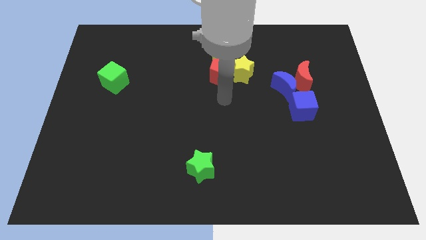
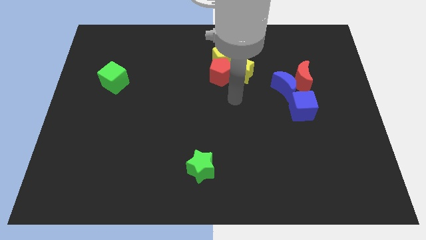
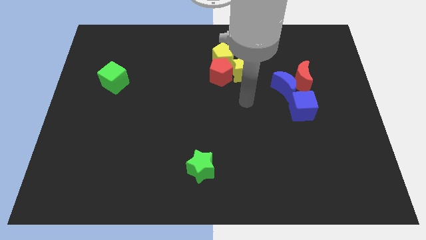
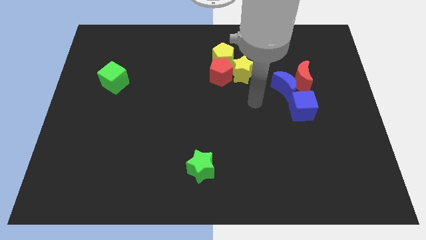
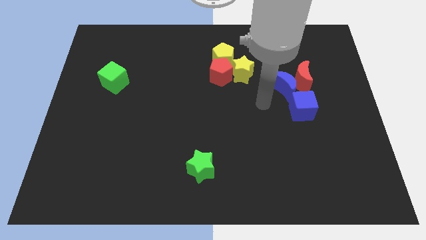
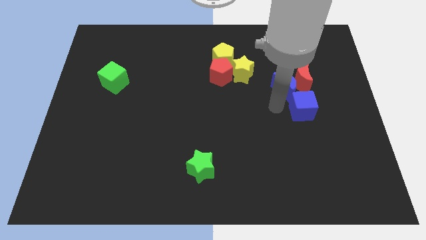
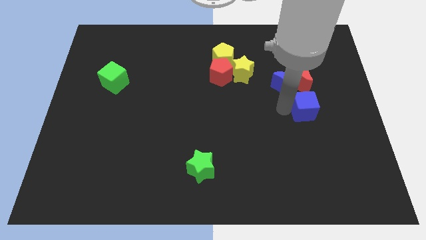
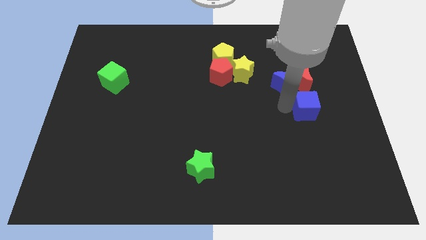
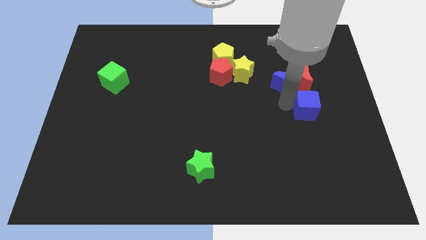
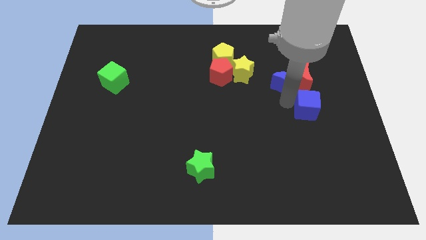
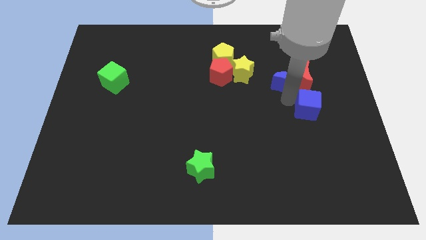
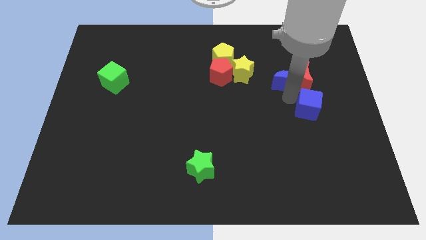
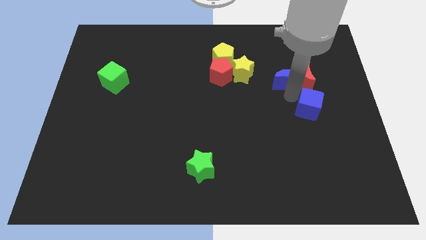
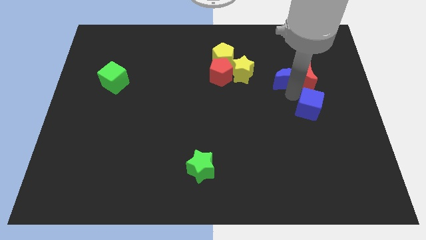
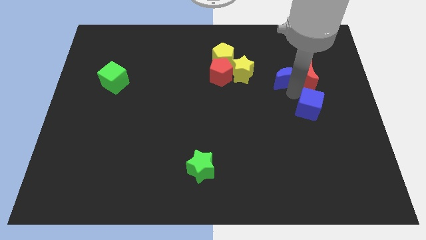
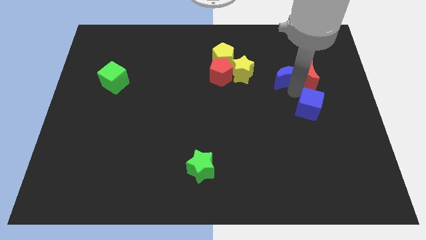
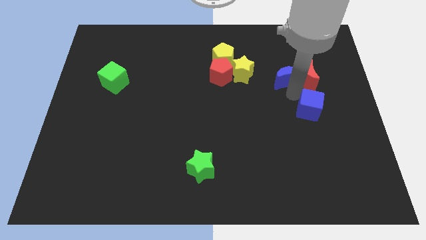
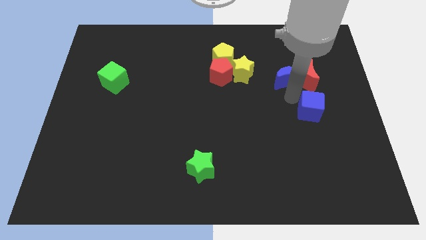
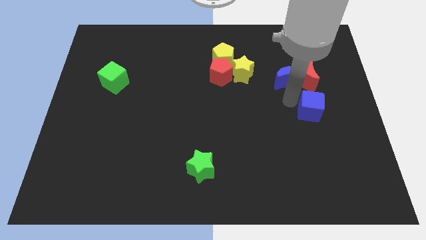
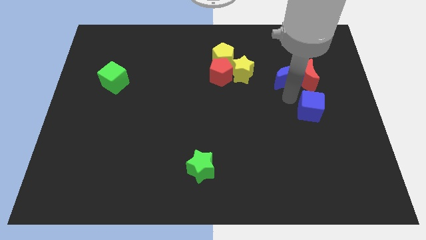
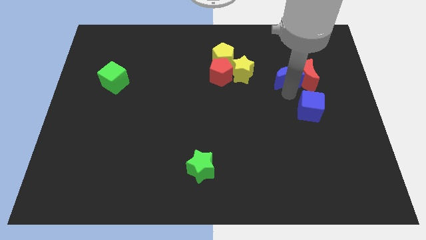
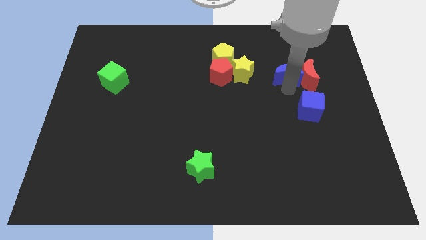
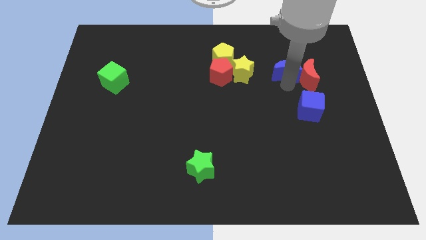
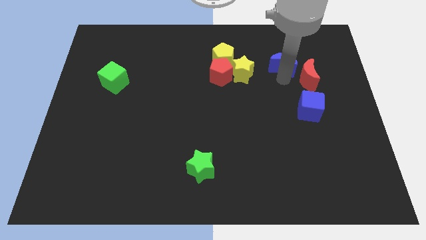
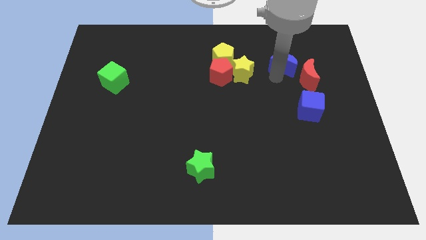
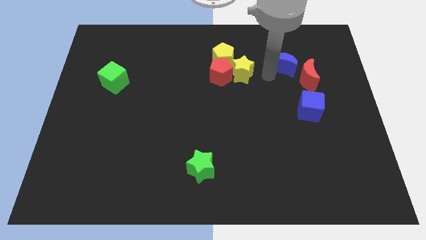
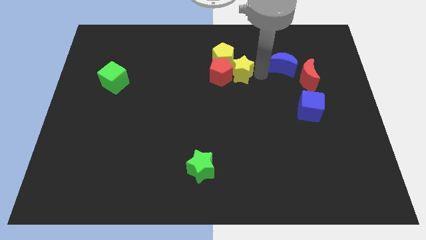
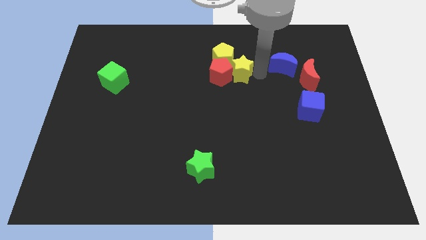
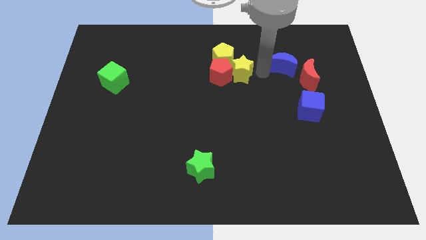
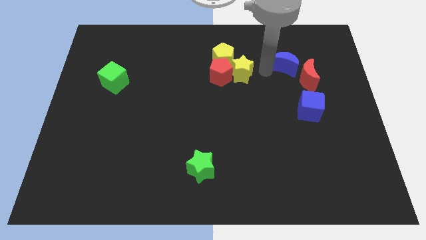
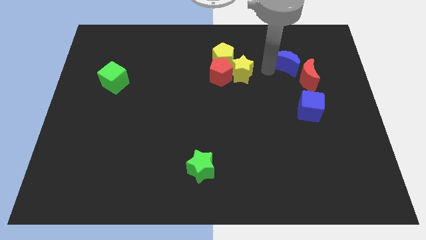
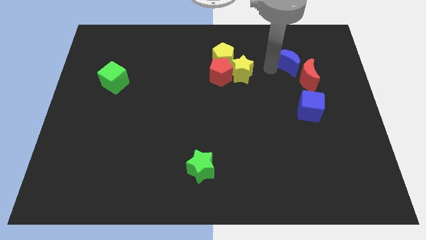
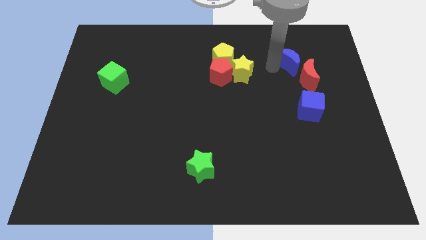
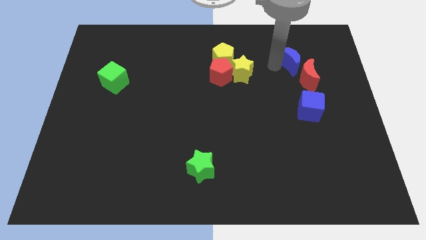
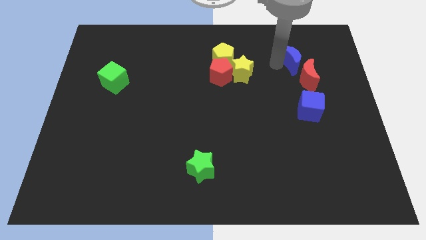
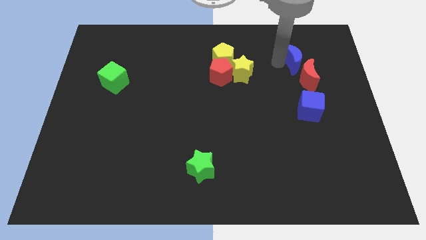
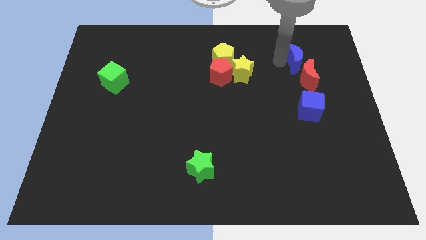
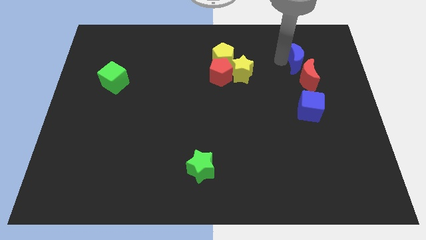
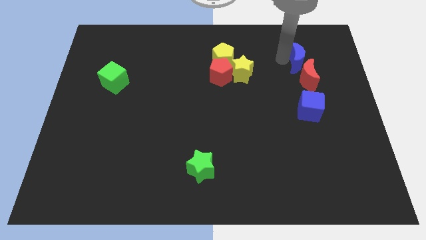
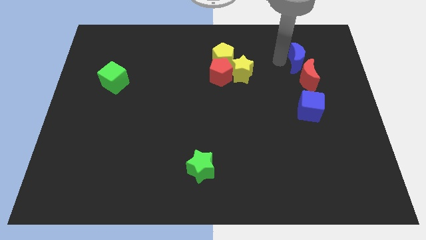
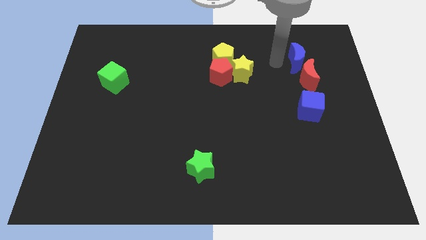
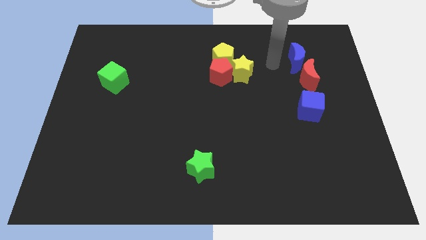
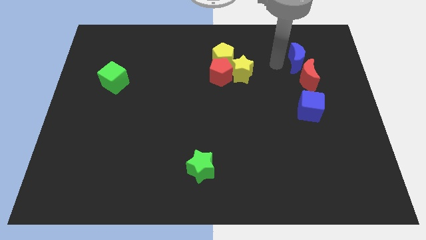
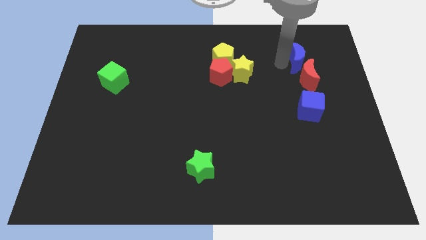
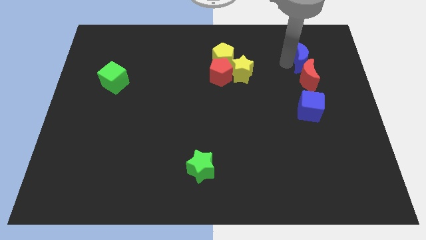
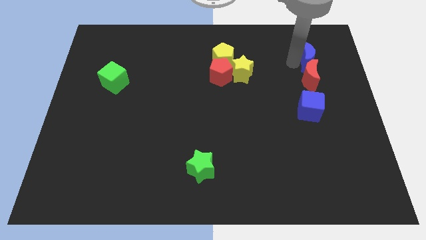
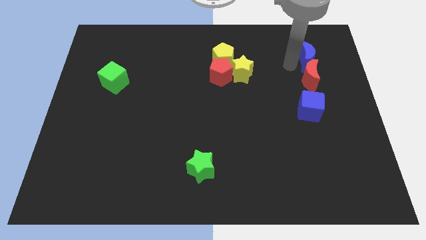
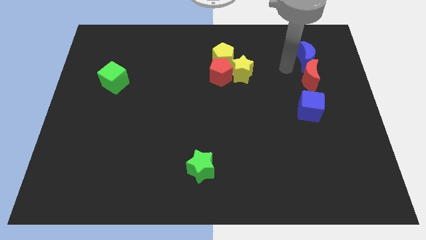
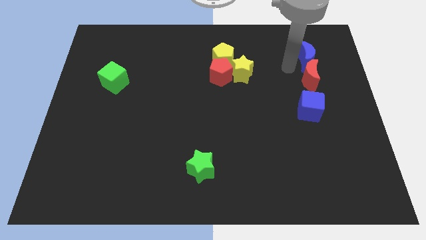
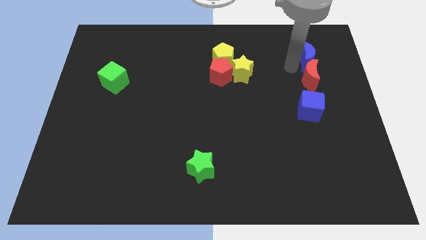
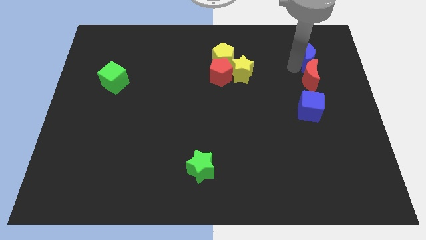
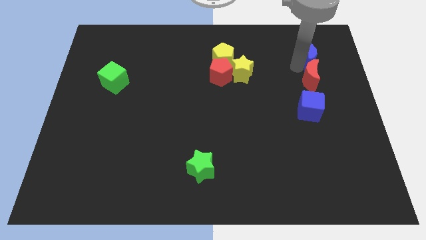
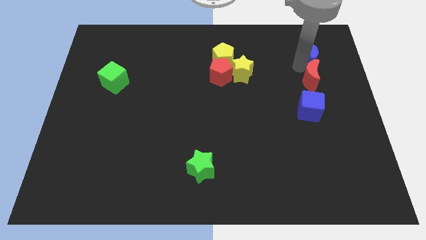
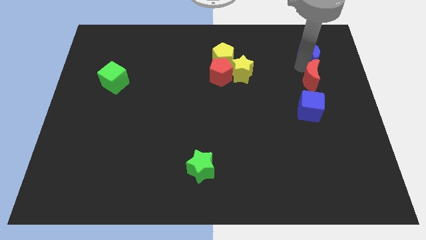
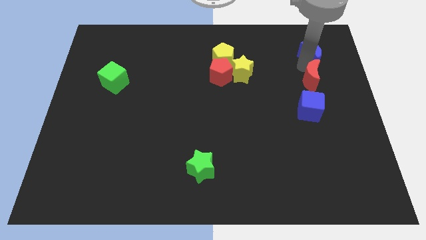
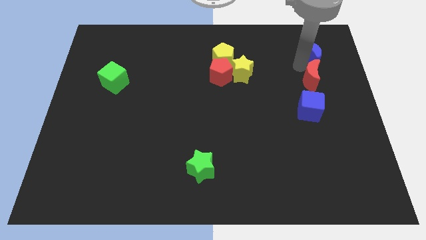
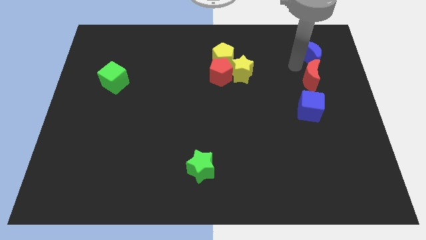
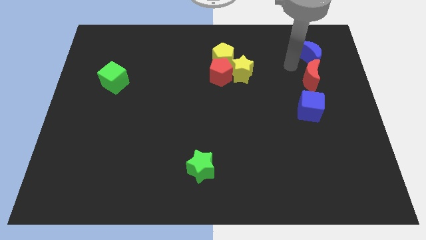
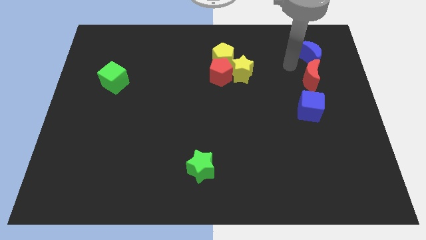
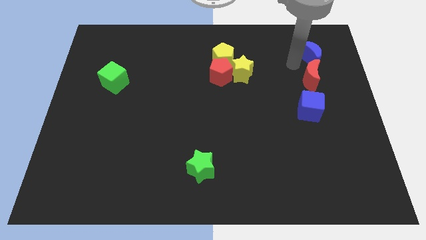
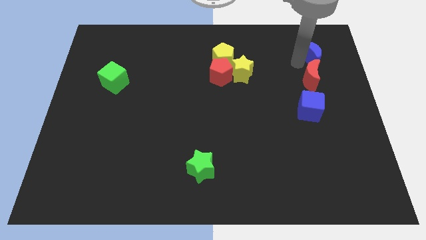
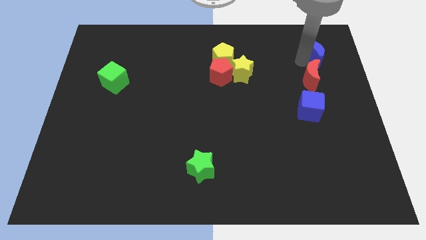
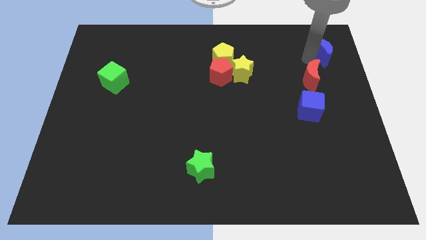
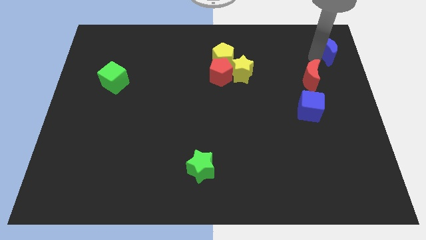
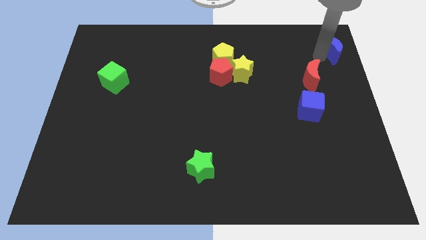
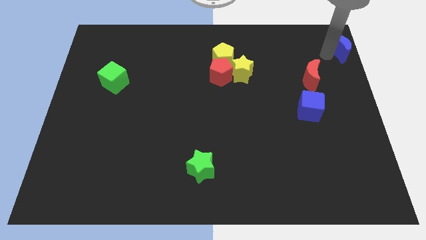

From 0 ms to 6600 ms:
slide the blue moon to the top right of the board

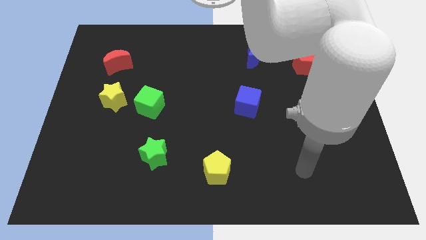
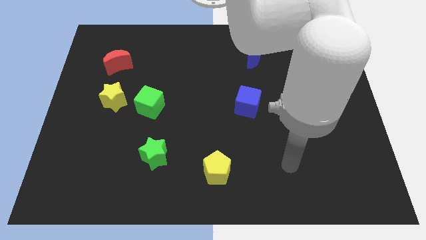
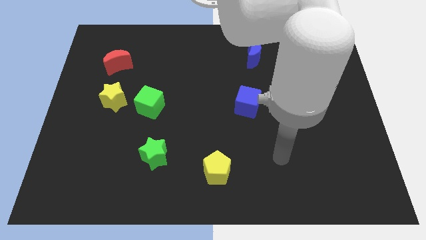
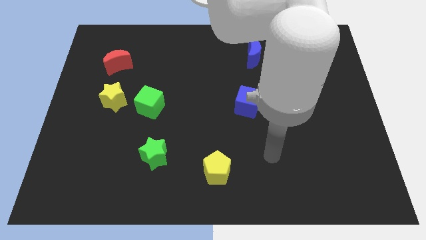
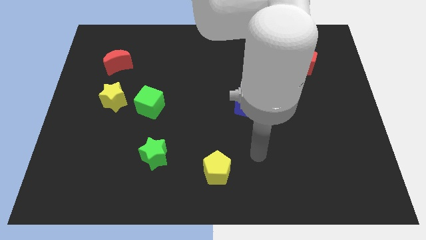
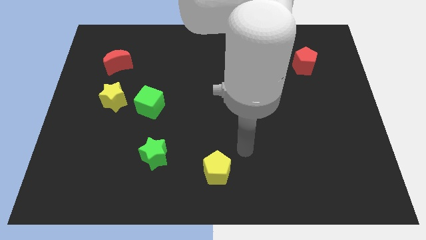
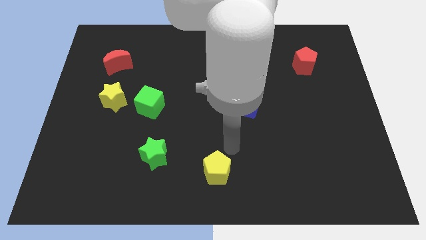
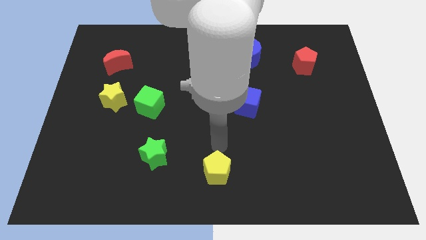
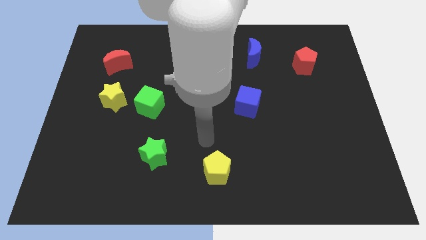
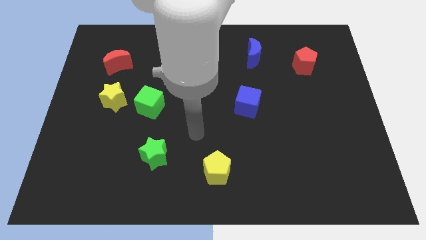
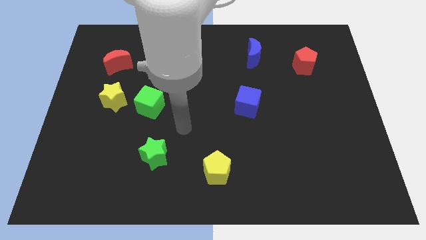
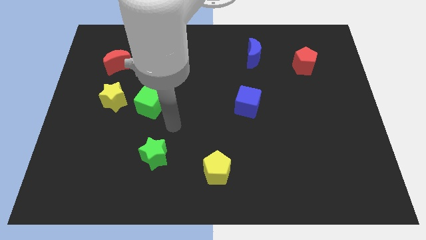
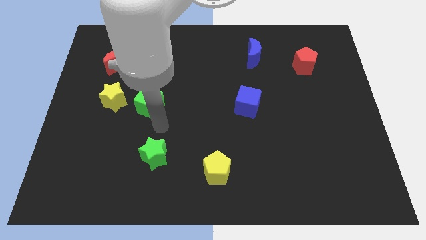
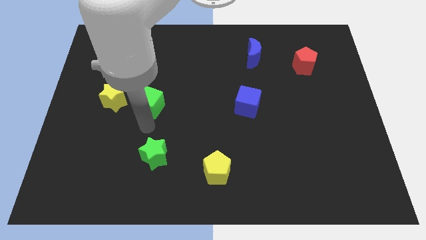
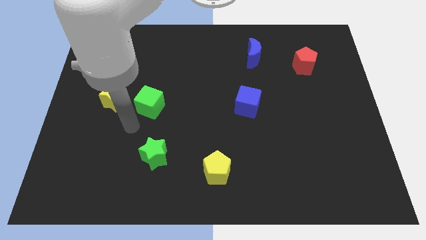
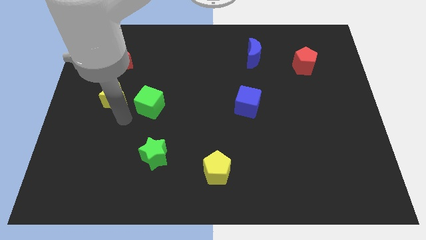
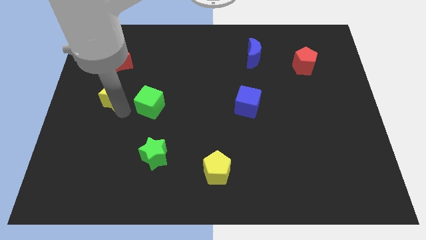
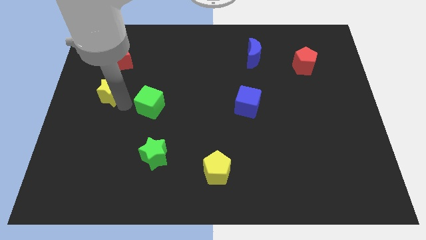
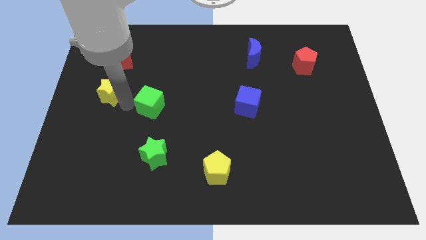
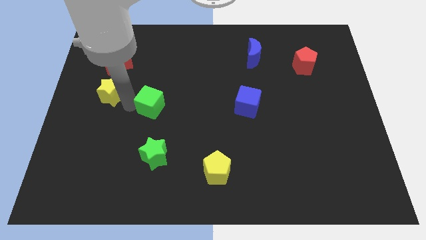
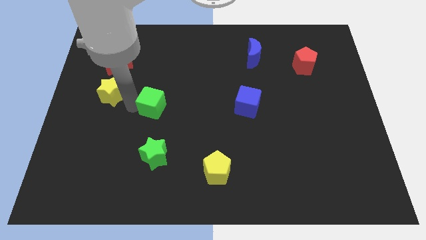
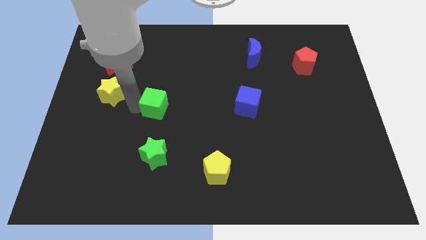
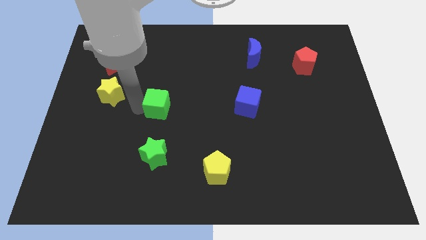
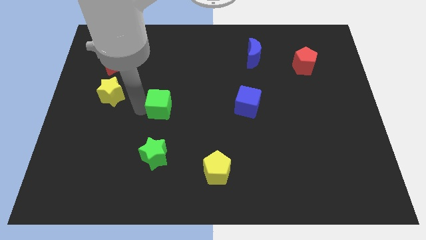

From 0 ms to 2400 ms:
push the green cube to the center
